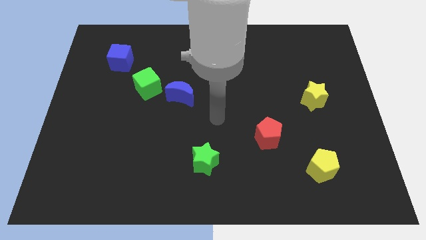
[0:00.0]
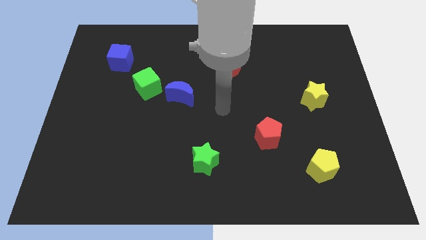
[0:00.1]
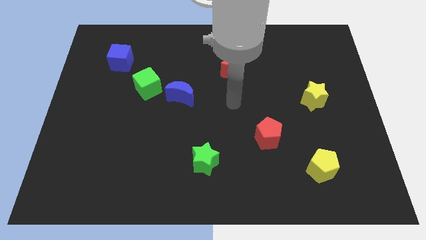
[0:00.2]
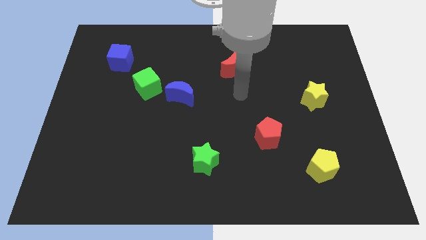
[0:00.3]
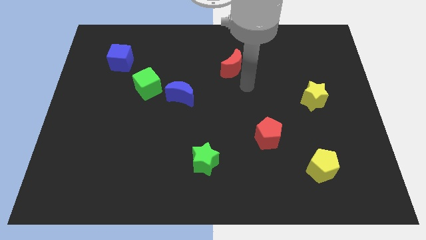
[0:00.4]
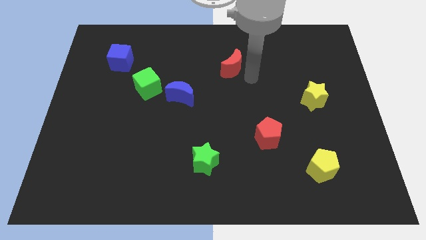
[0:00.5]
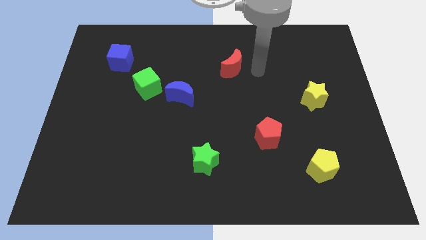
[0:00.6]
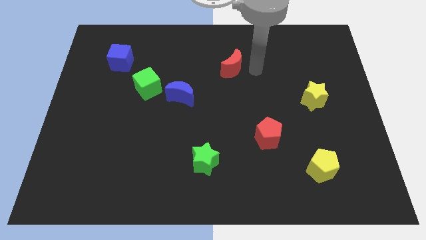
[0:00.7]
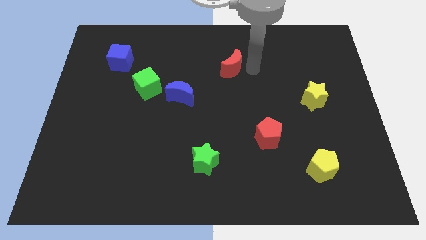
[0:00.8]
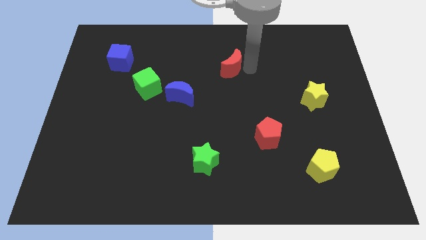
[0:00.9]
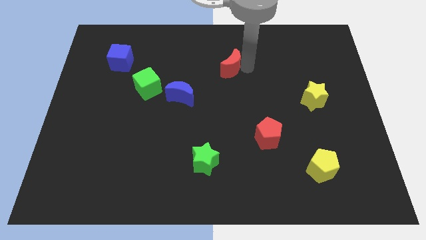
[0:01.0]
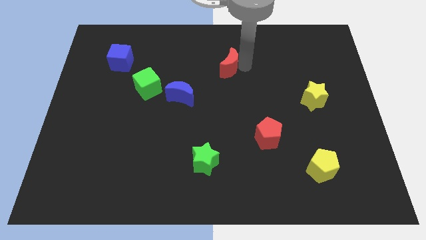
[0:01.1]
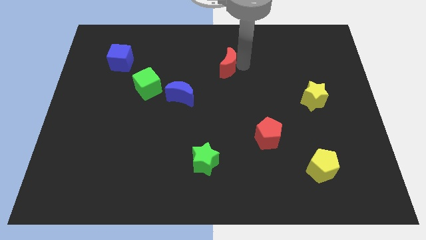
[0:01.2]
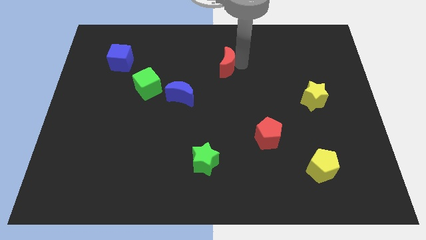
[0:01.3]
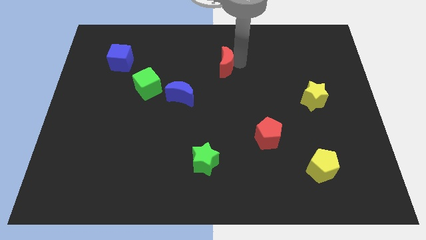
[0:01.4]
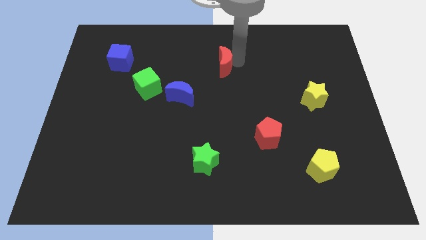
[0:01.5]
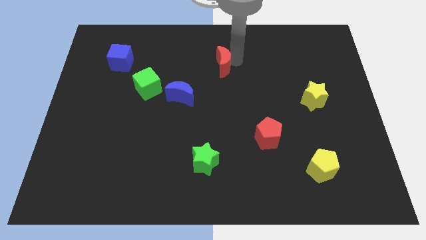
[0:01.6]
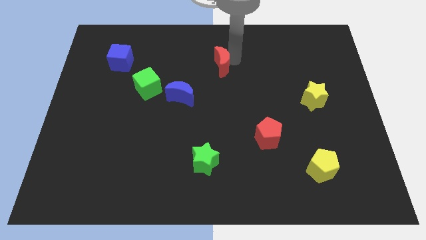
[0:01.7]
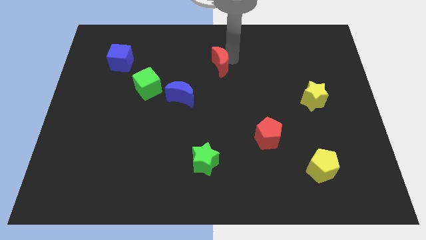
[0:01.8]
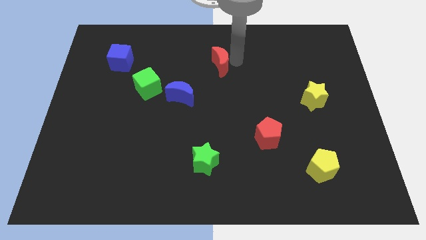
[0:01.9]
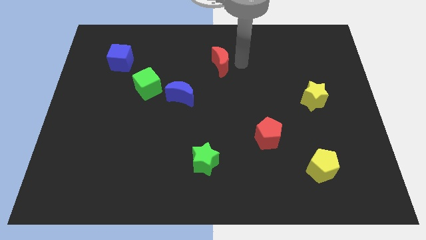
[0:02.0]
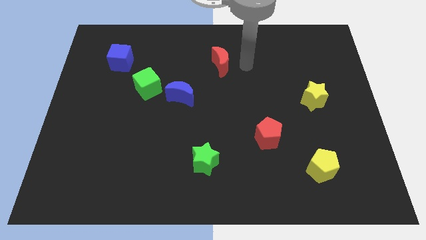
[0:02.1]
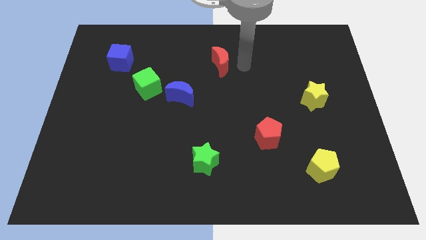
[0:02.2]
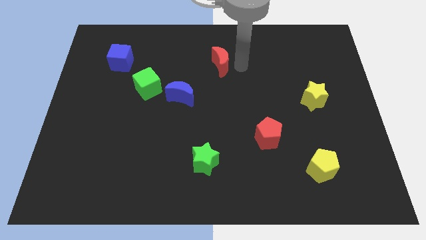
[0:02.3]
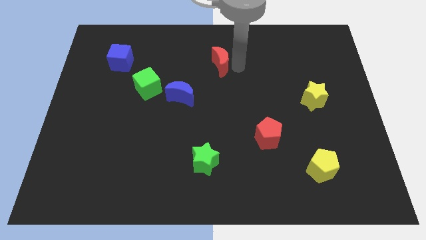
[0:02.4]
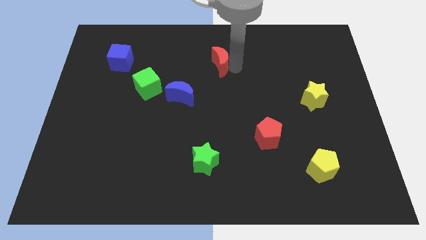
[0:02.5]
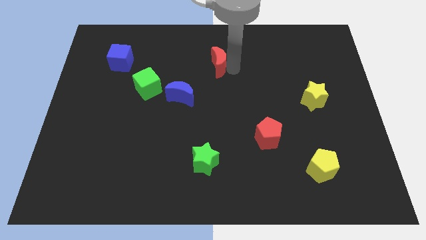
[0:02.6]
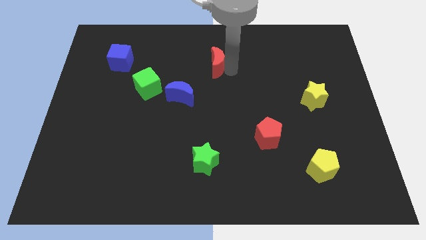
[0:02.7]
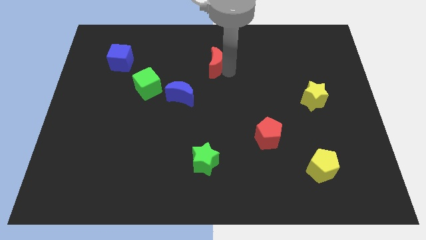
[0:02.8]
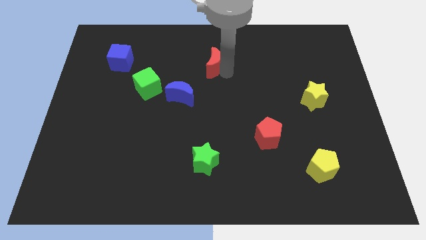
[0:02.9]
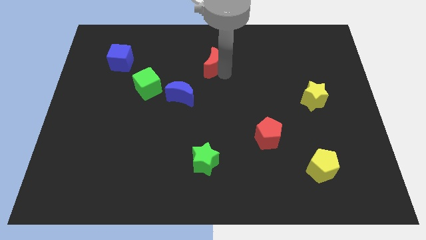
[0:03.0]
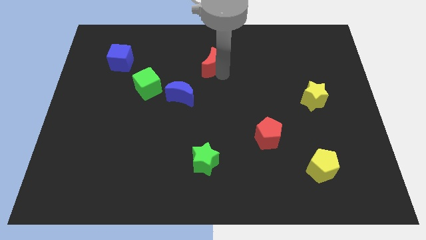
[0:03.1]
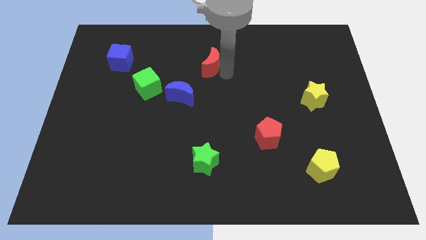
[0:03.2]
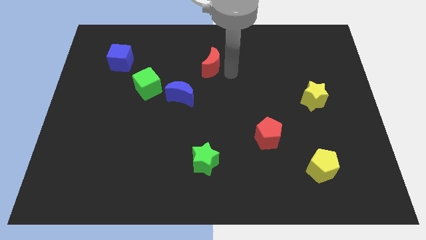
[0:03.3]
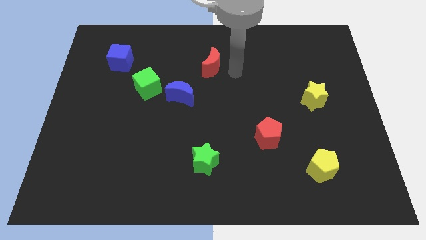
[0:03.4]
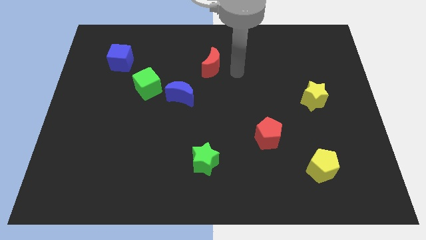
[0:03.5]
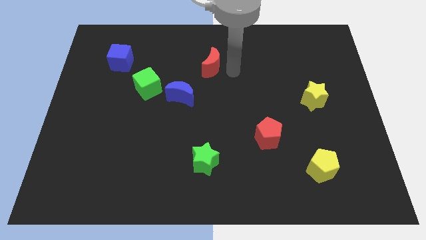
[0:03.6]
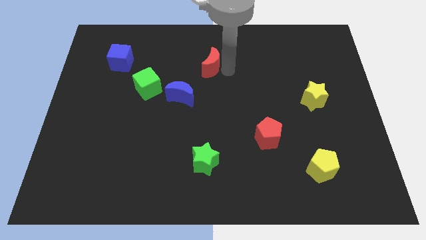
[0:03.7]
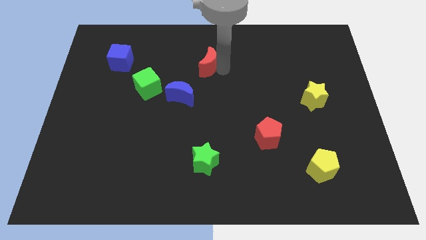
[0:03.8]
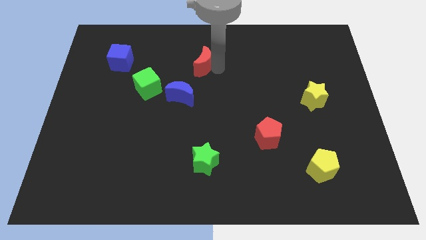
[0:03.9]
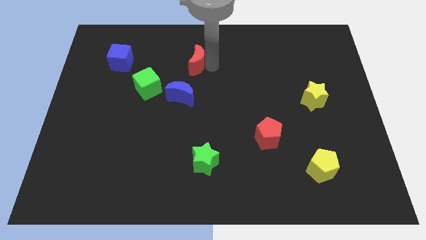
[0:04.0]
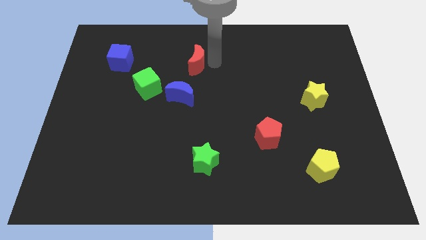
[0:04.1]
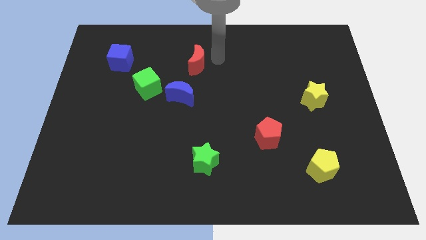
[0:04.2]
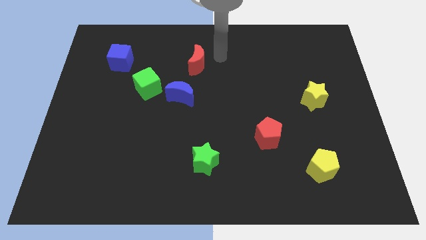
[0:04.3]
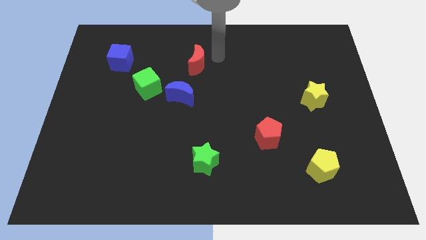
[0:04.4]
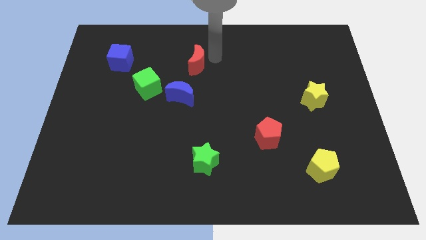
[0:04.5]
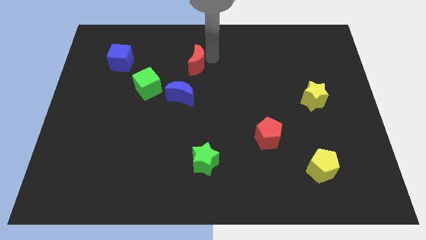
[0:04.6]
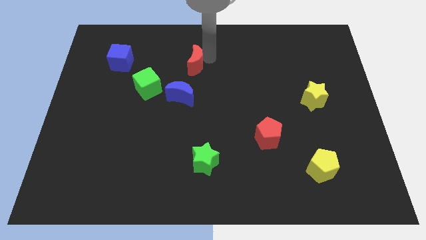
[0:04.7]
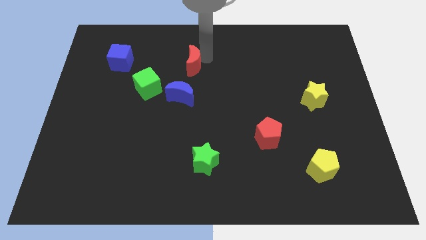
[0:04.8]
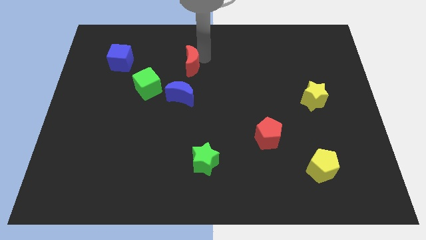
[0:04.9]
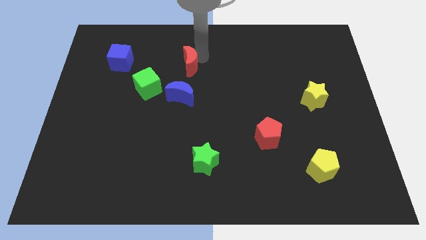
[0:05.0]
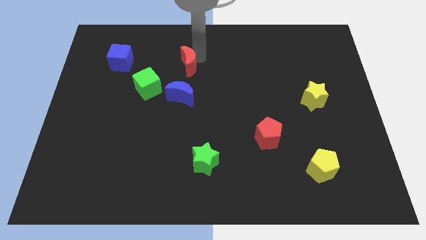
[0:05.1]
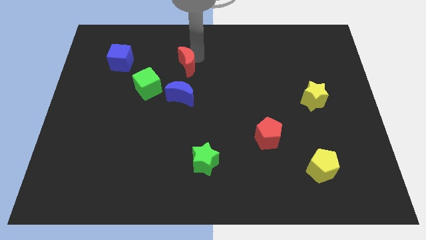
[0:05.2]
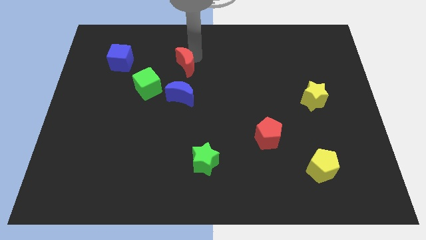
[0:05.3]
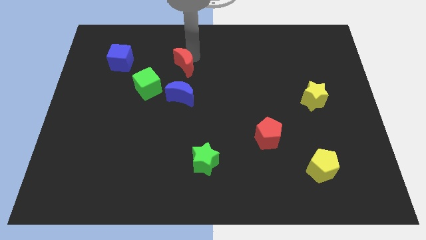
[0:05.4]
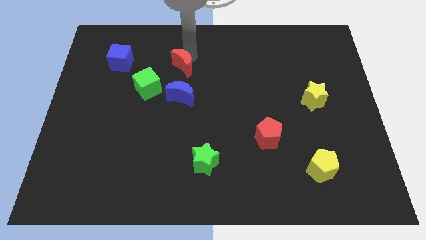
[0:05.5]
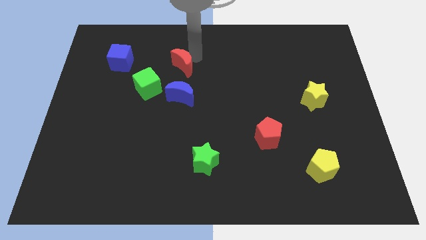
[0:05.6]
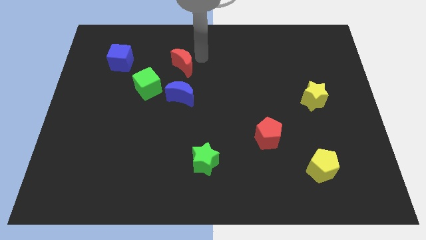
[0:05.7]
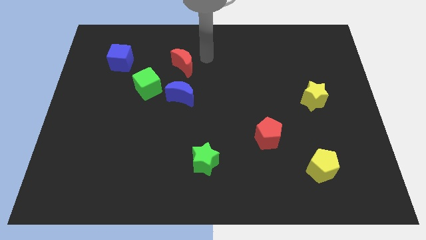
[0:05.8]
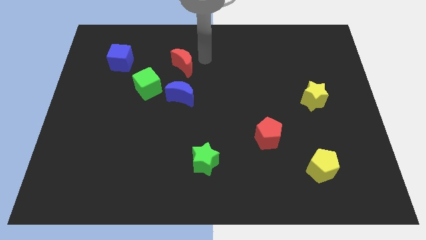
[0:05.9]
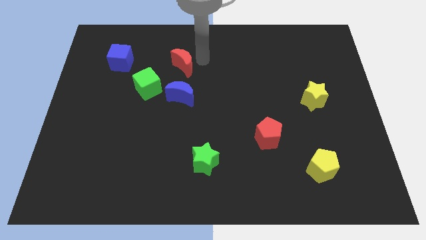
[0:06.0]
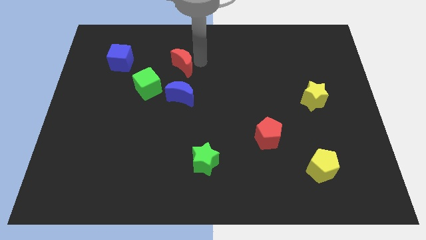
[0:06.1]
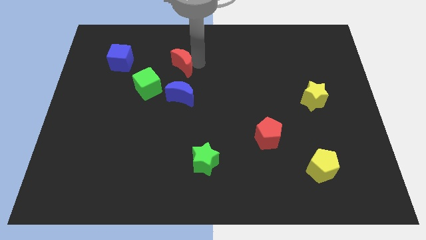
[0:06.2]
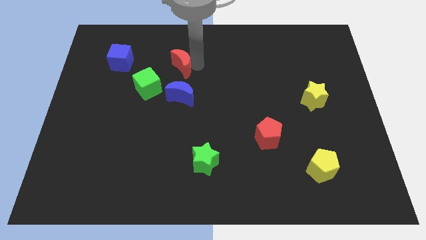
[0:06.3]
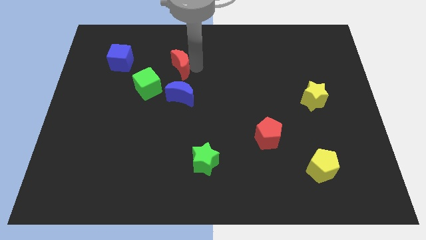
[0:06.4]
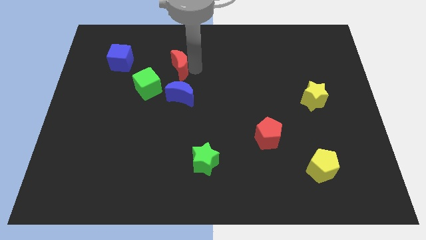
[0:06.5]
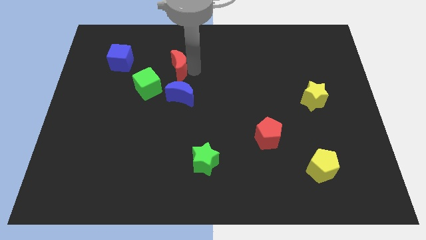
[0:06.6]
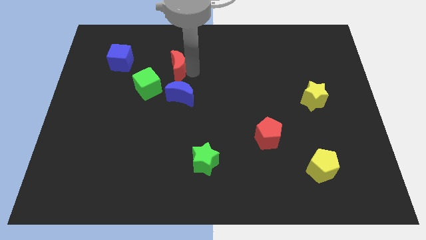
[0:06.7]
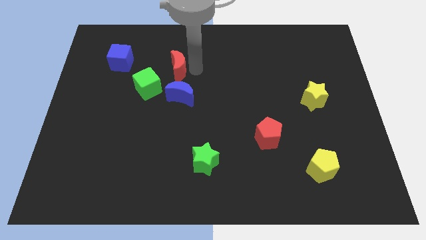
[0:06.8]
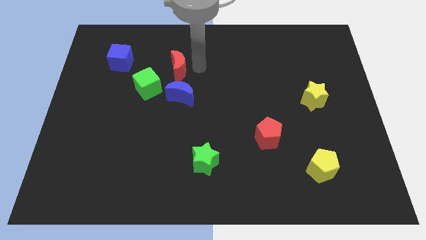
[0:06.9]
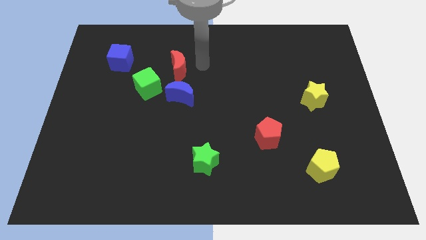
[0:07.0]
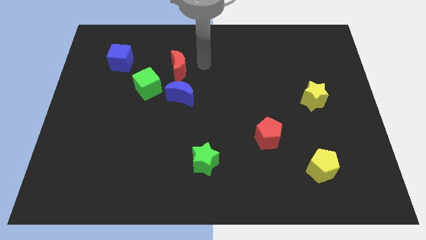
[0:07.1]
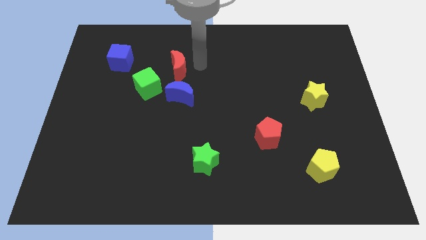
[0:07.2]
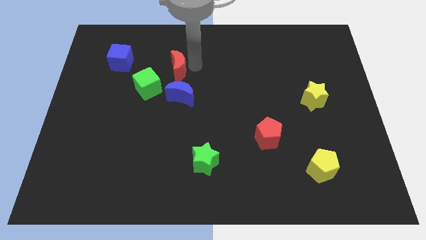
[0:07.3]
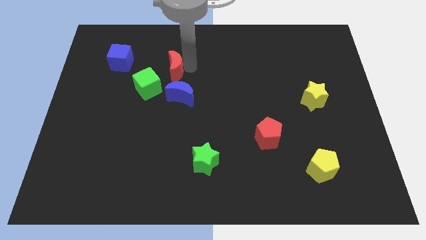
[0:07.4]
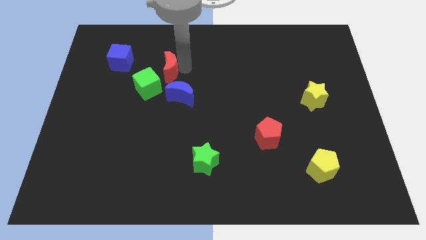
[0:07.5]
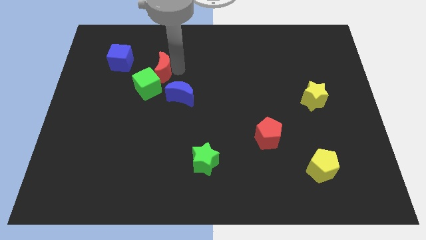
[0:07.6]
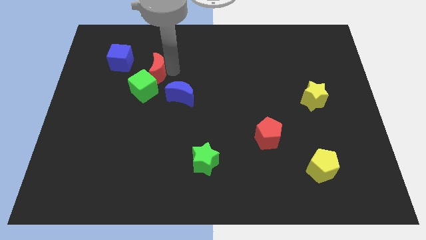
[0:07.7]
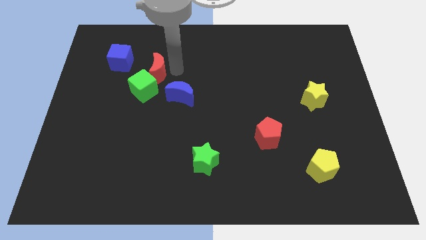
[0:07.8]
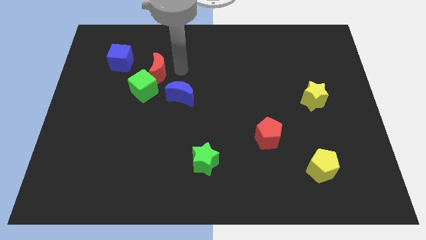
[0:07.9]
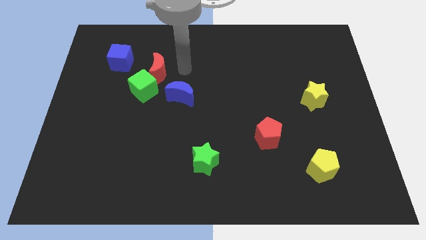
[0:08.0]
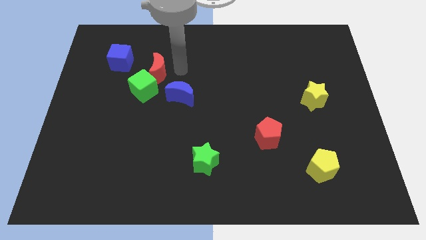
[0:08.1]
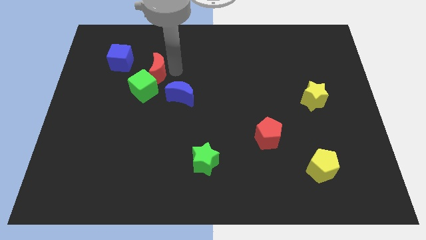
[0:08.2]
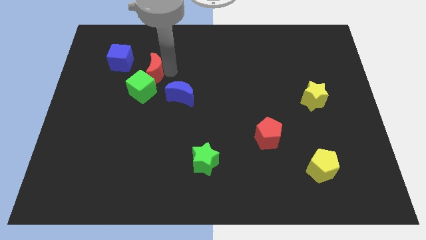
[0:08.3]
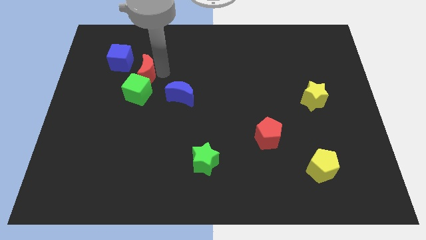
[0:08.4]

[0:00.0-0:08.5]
move the red moon left
